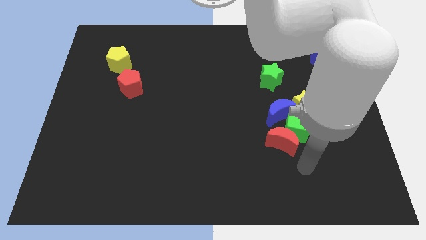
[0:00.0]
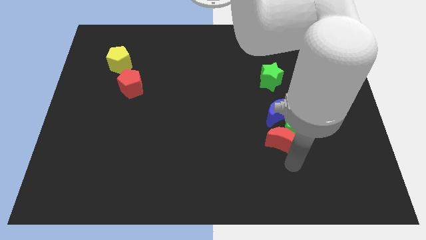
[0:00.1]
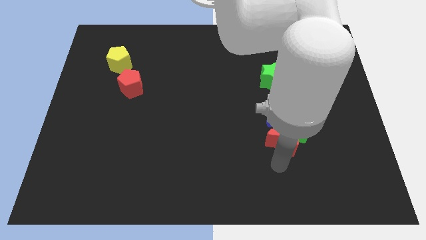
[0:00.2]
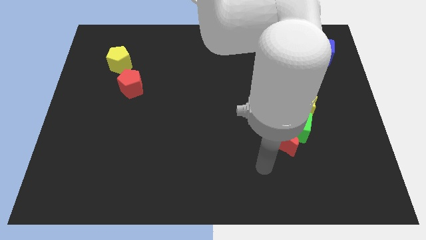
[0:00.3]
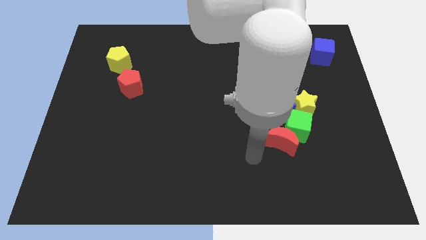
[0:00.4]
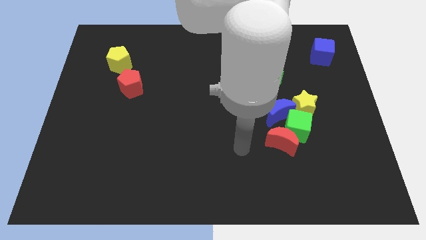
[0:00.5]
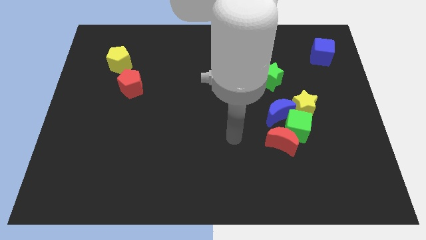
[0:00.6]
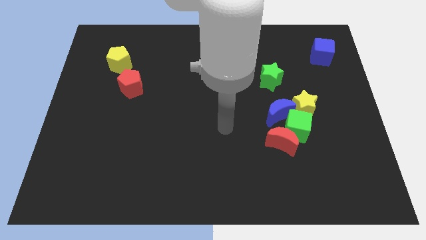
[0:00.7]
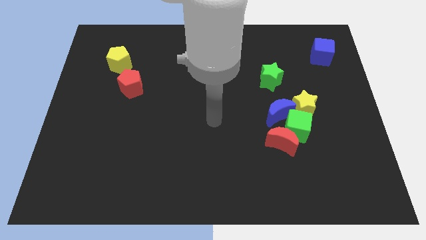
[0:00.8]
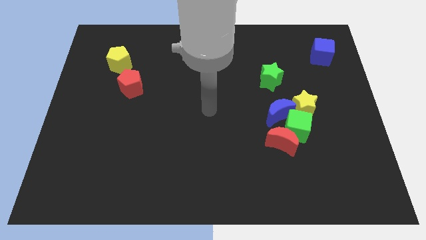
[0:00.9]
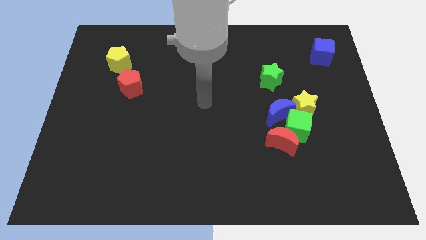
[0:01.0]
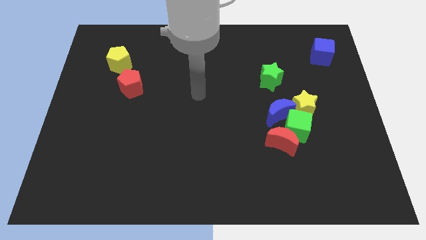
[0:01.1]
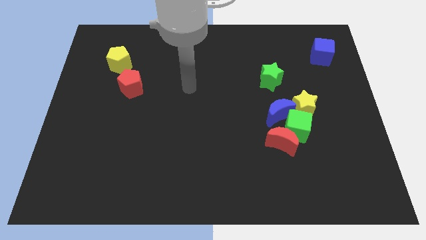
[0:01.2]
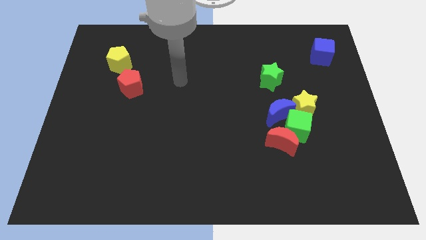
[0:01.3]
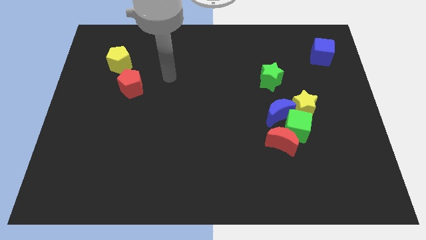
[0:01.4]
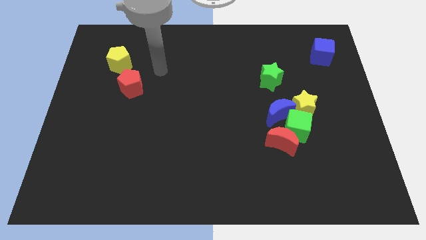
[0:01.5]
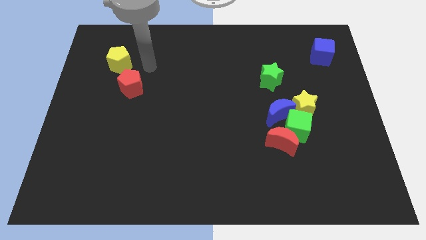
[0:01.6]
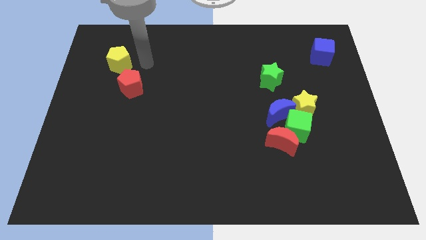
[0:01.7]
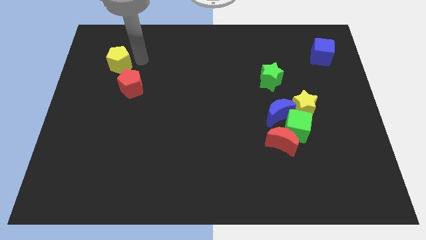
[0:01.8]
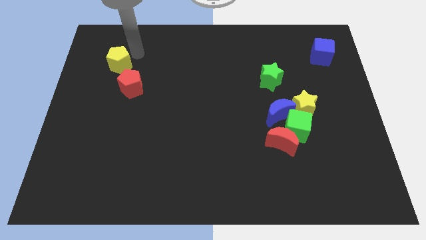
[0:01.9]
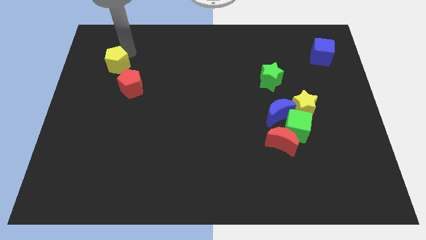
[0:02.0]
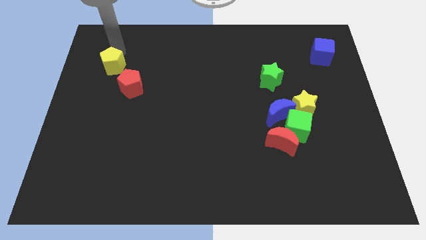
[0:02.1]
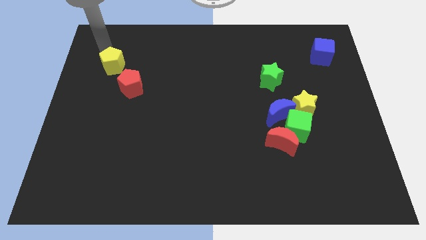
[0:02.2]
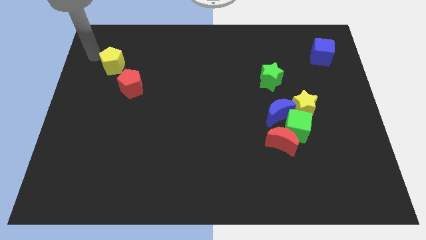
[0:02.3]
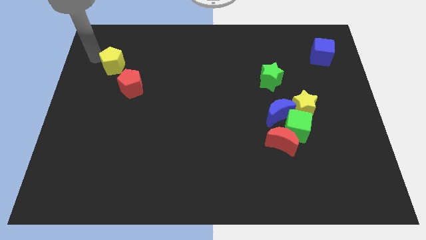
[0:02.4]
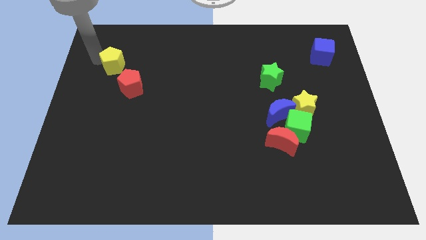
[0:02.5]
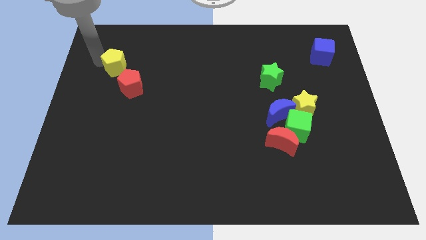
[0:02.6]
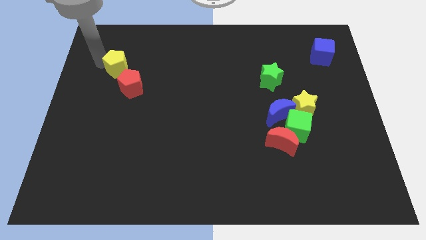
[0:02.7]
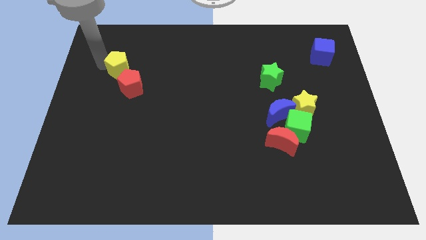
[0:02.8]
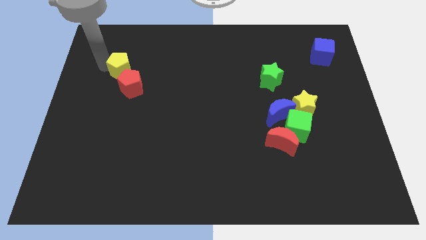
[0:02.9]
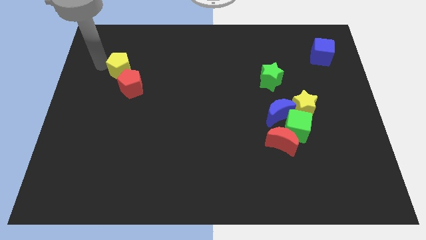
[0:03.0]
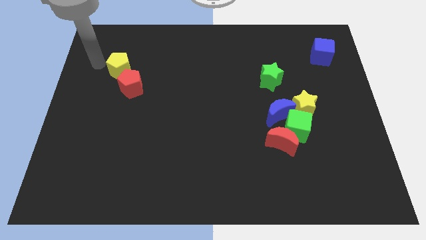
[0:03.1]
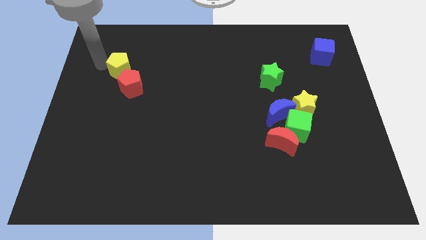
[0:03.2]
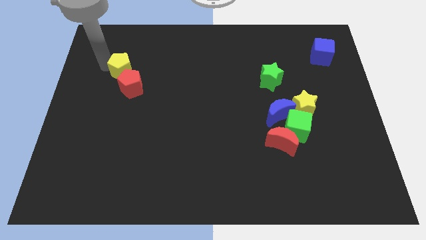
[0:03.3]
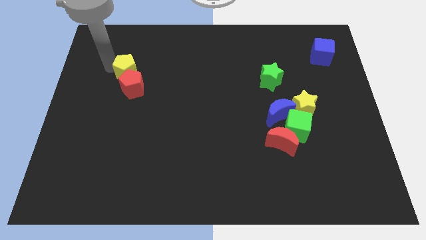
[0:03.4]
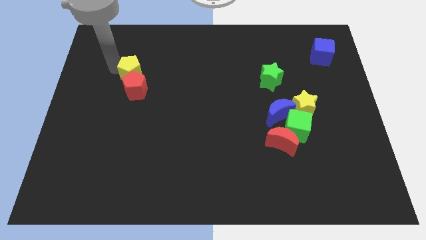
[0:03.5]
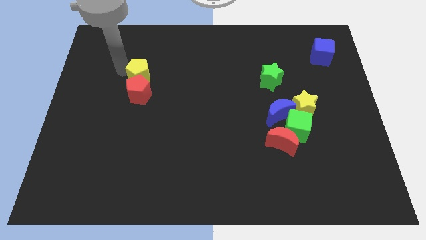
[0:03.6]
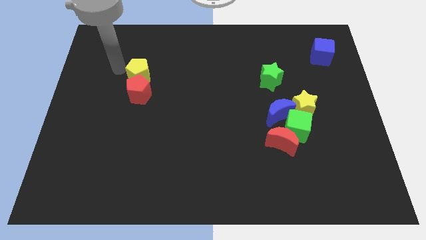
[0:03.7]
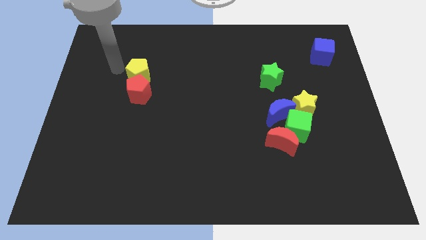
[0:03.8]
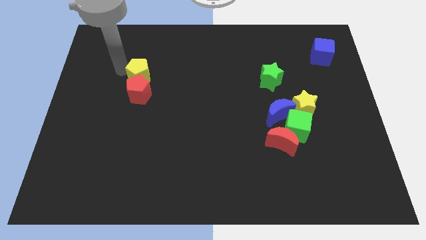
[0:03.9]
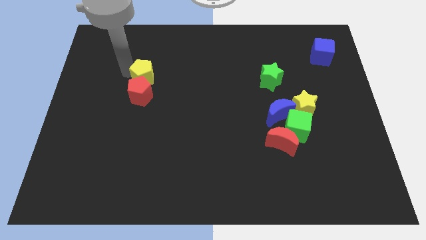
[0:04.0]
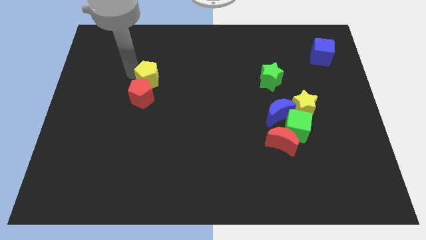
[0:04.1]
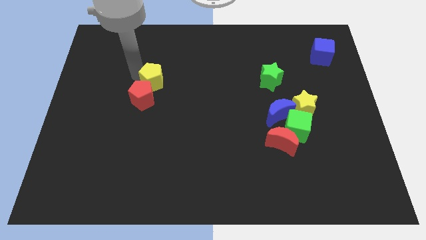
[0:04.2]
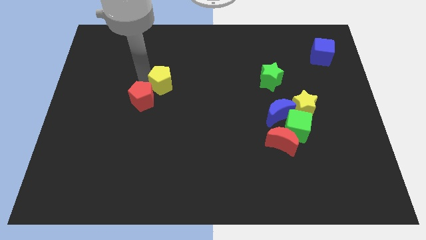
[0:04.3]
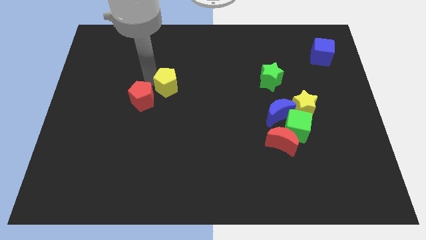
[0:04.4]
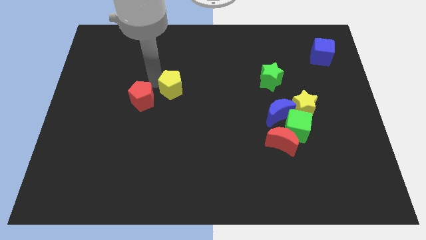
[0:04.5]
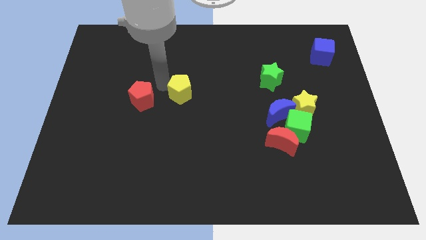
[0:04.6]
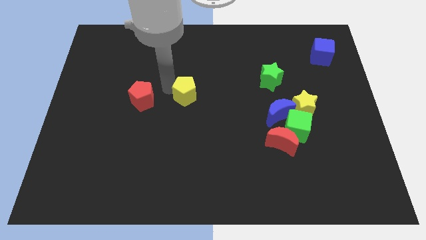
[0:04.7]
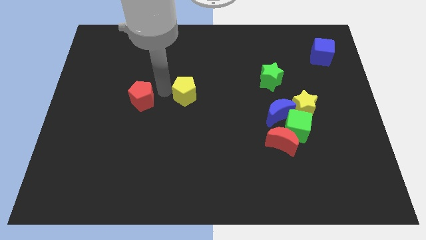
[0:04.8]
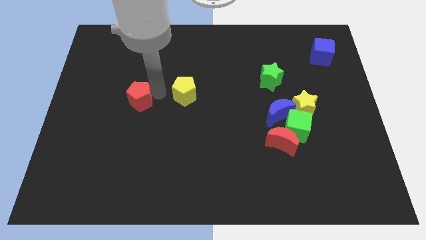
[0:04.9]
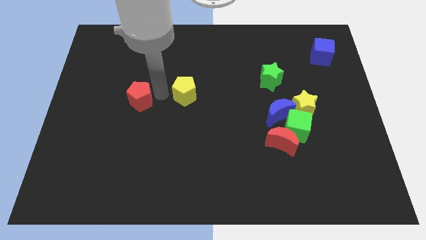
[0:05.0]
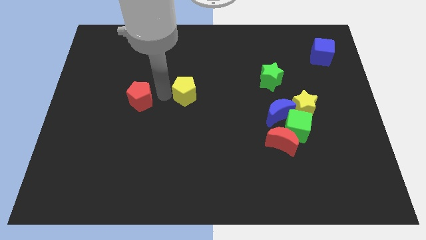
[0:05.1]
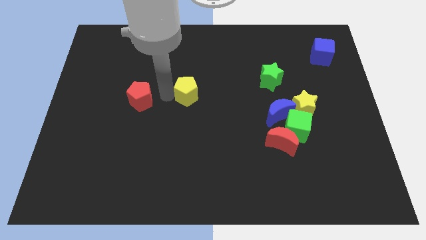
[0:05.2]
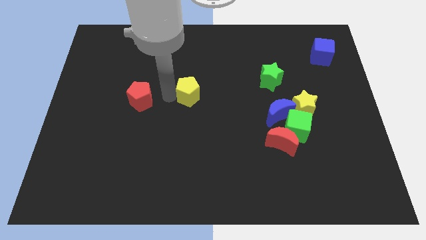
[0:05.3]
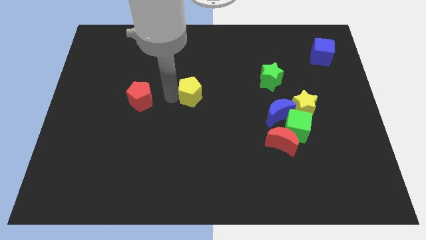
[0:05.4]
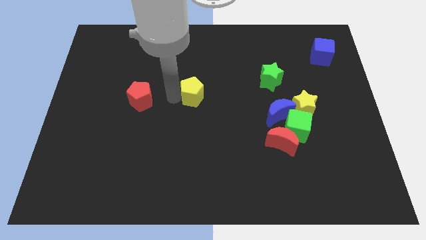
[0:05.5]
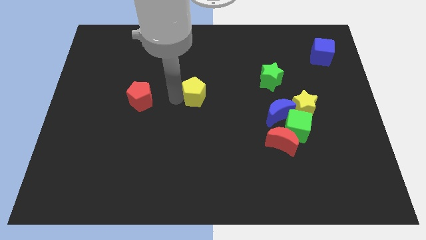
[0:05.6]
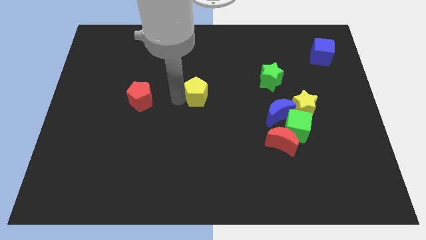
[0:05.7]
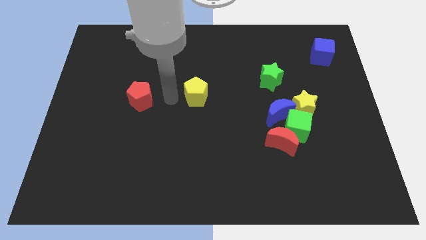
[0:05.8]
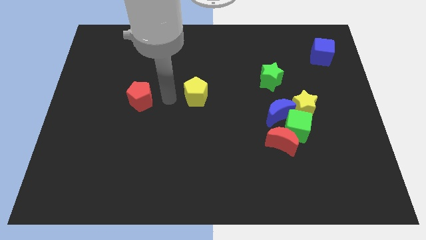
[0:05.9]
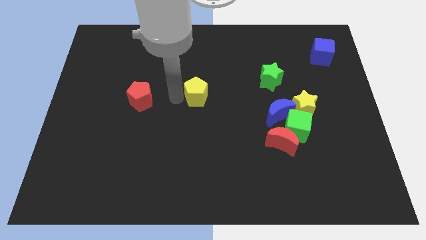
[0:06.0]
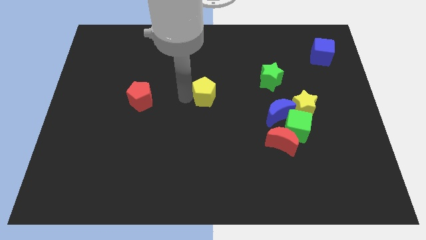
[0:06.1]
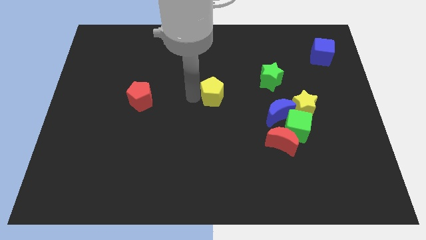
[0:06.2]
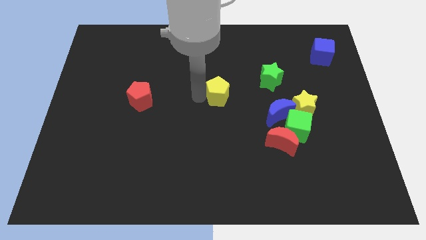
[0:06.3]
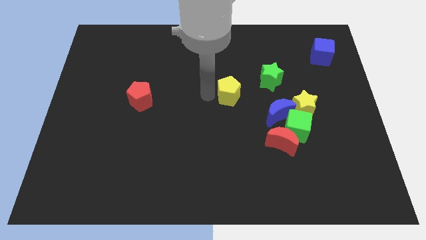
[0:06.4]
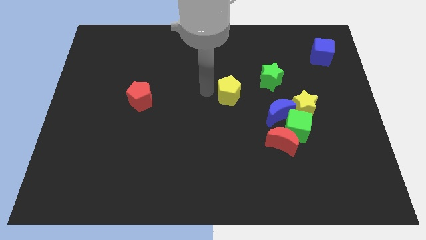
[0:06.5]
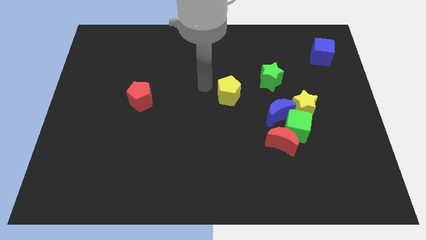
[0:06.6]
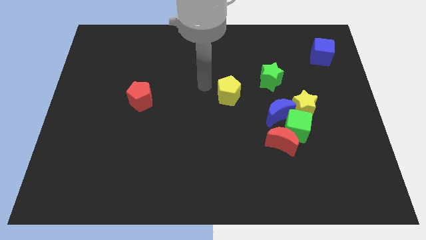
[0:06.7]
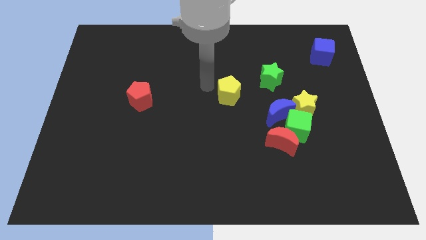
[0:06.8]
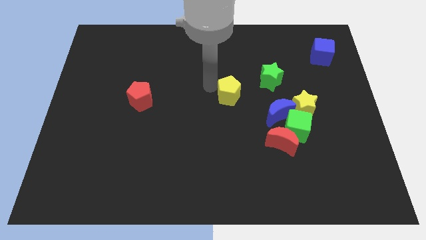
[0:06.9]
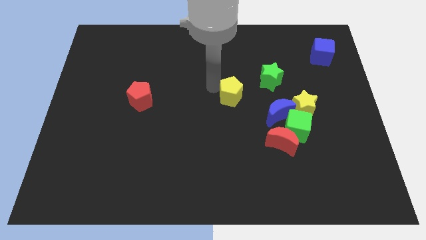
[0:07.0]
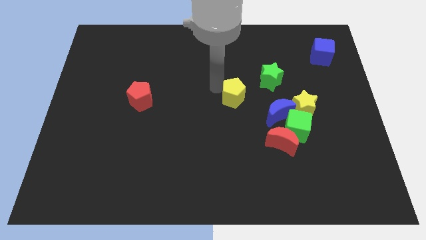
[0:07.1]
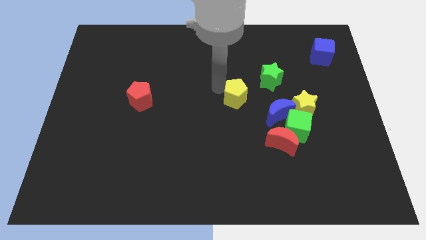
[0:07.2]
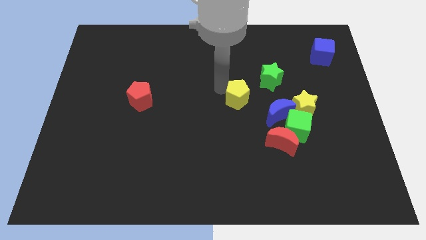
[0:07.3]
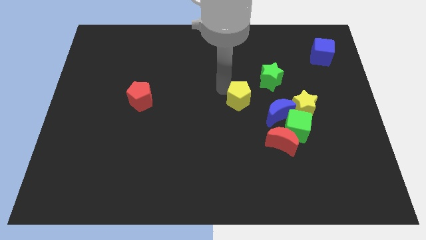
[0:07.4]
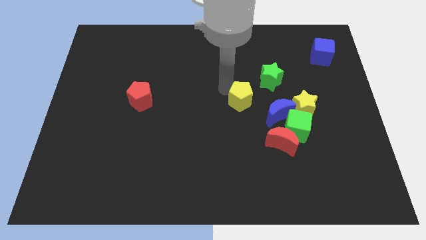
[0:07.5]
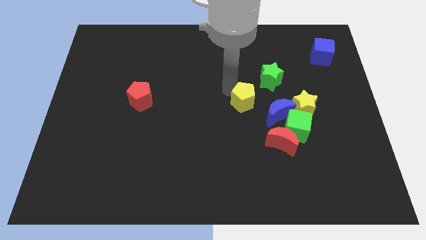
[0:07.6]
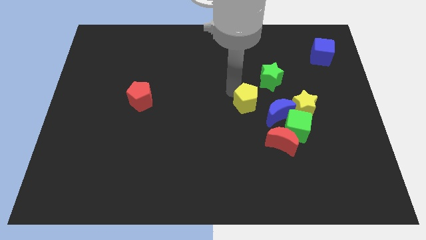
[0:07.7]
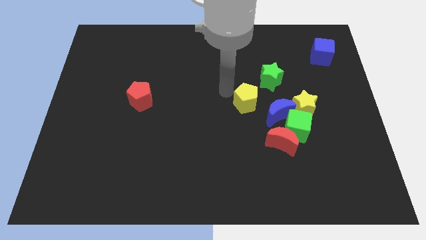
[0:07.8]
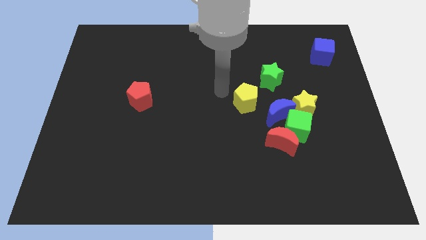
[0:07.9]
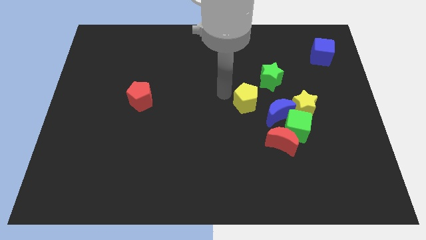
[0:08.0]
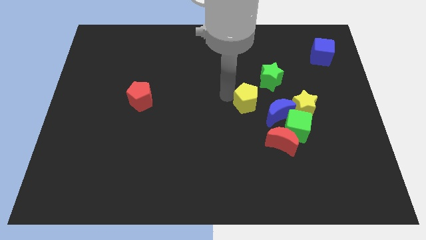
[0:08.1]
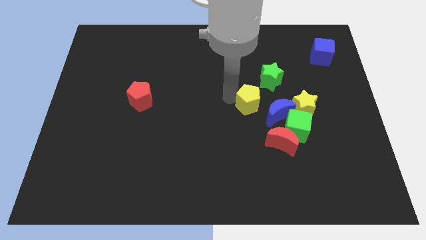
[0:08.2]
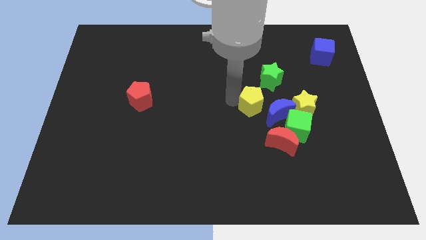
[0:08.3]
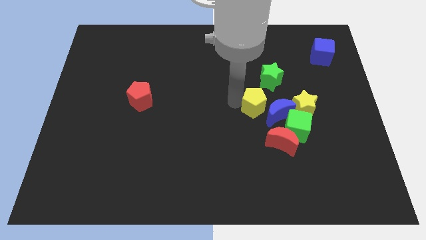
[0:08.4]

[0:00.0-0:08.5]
push the yellow pentagon close to the blue moon
